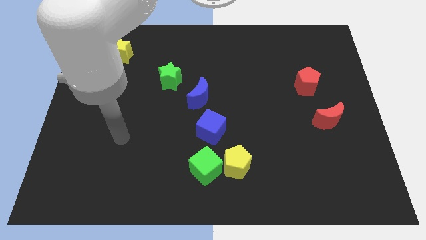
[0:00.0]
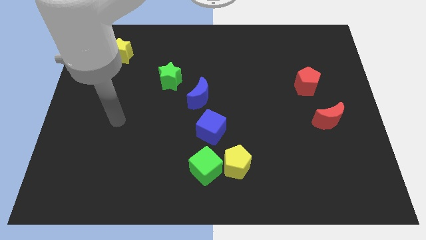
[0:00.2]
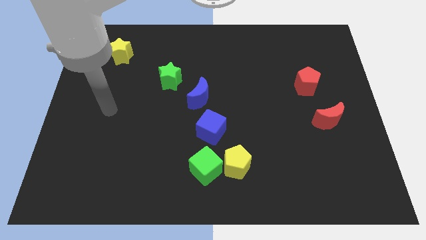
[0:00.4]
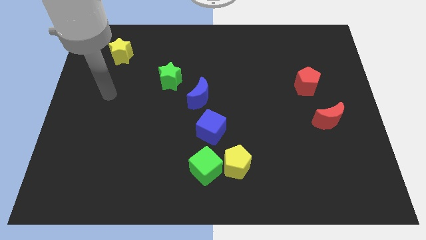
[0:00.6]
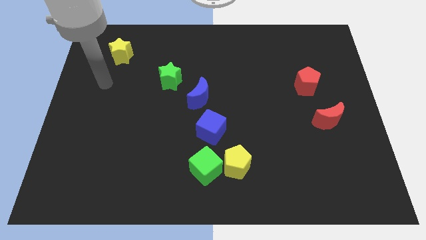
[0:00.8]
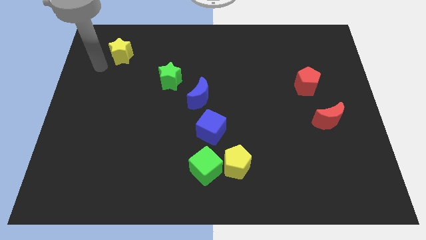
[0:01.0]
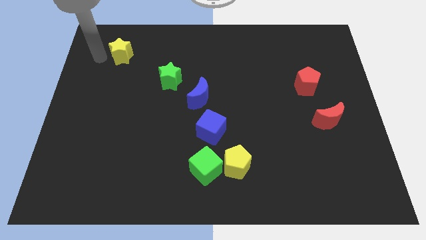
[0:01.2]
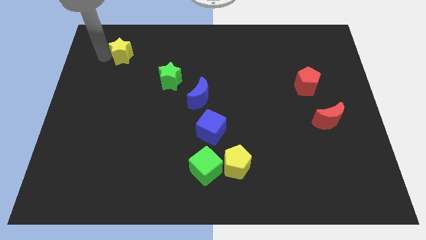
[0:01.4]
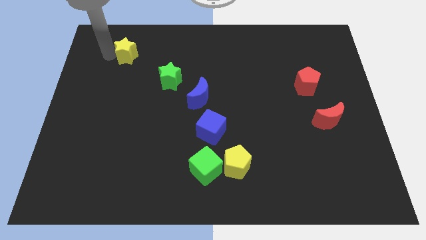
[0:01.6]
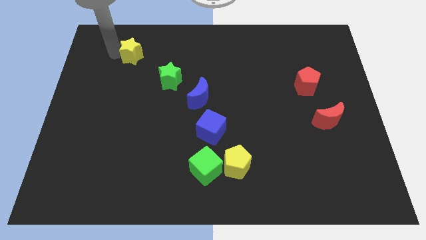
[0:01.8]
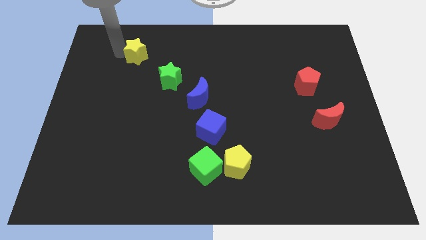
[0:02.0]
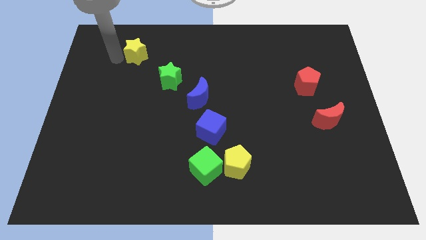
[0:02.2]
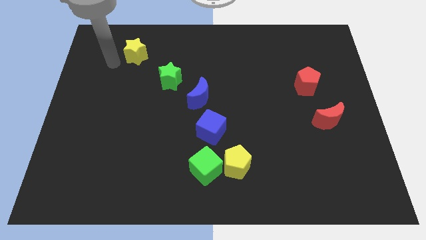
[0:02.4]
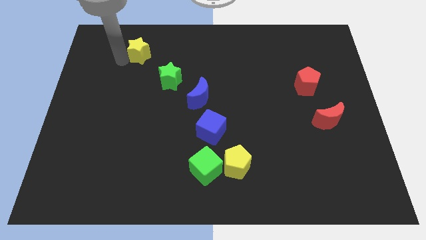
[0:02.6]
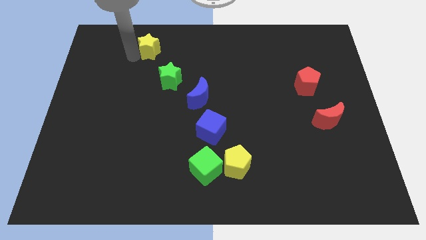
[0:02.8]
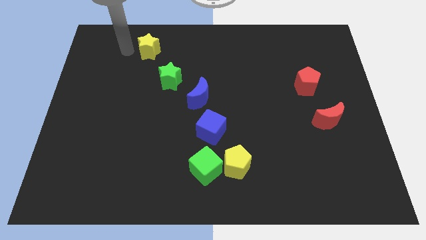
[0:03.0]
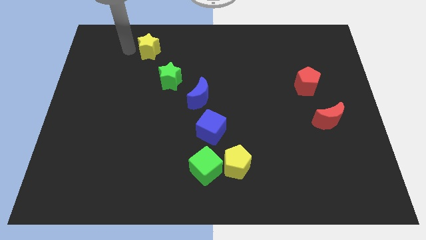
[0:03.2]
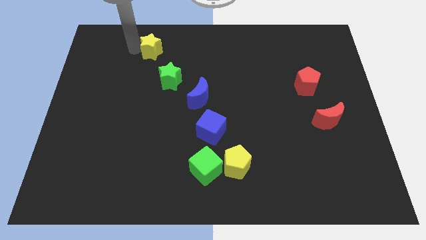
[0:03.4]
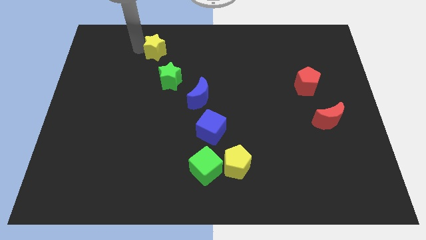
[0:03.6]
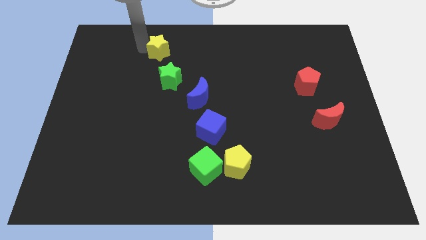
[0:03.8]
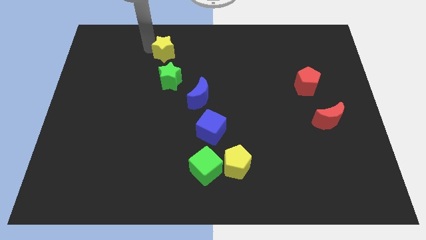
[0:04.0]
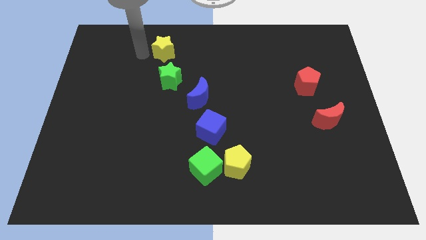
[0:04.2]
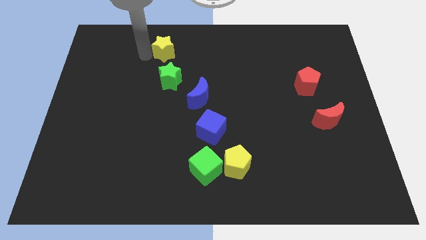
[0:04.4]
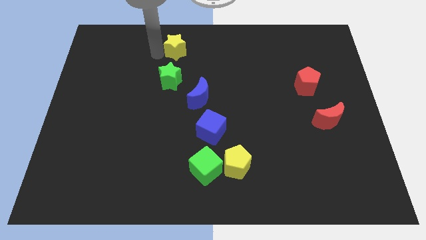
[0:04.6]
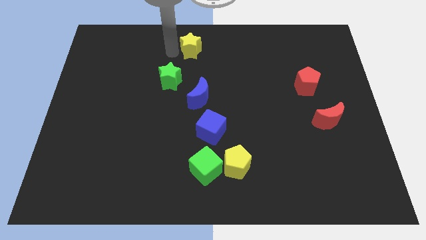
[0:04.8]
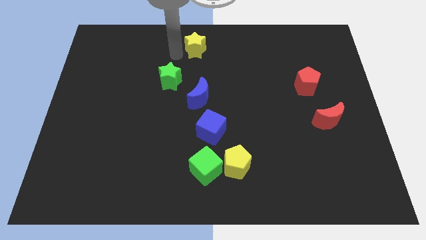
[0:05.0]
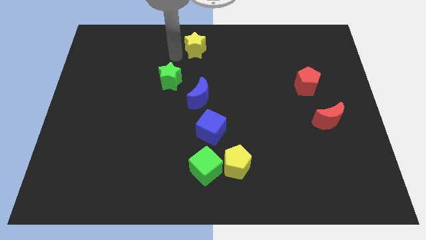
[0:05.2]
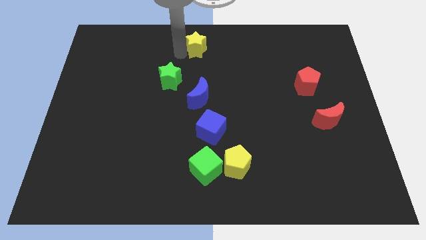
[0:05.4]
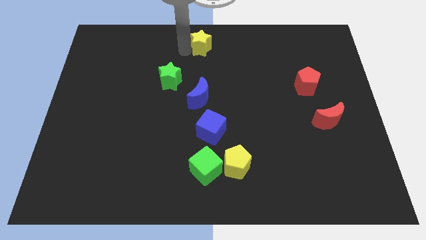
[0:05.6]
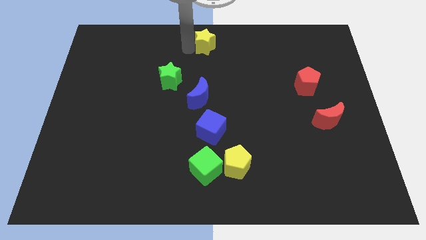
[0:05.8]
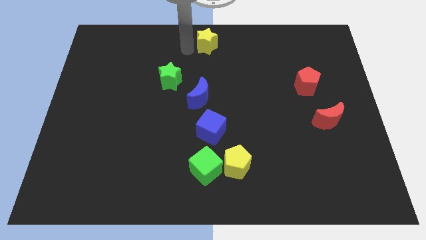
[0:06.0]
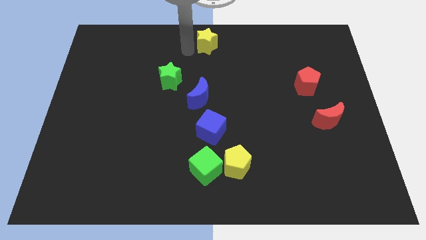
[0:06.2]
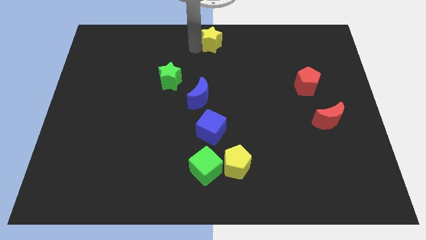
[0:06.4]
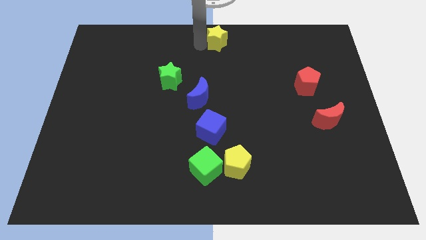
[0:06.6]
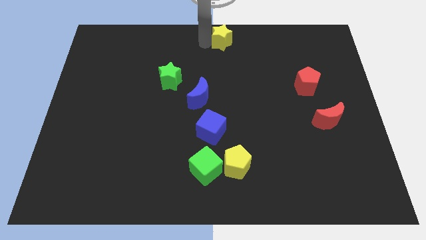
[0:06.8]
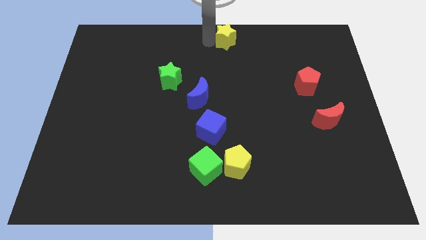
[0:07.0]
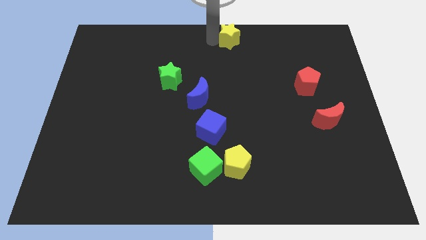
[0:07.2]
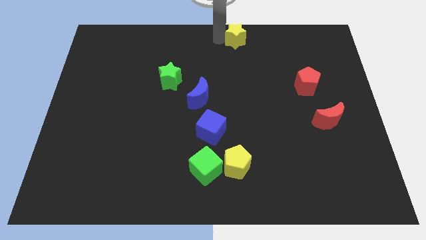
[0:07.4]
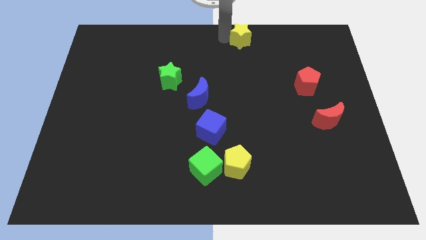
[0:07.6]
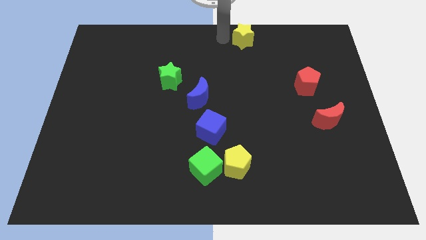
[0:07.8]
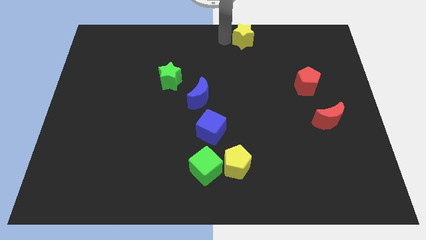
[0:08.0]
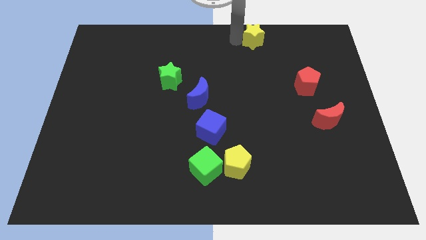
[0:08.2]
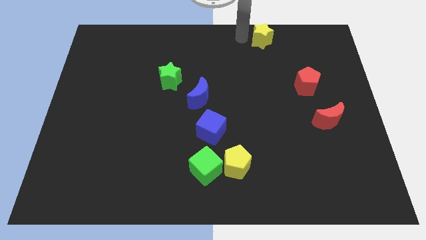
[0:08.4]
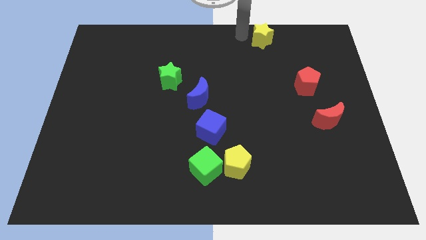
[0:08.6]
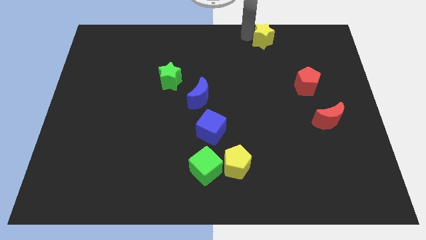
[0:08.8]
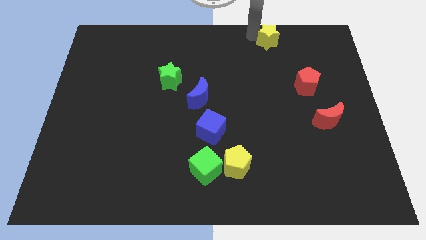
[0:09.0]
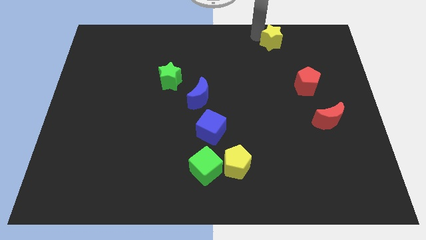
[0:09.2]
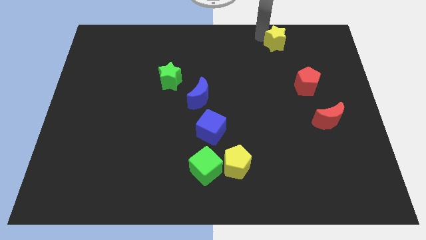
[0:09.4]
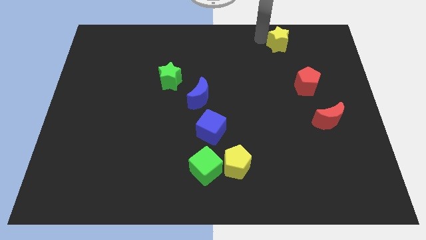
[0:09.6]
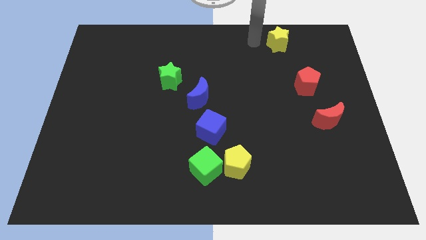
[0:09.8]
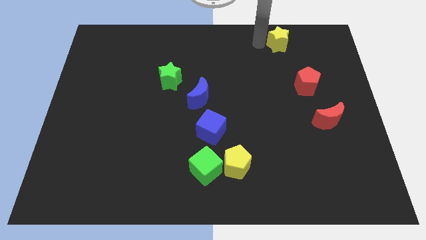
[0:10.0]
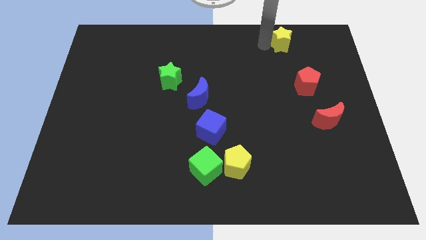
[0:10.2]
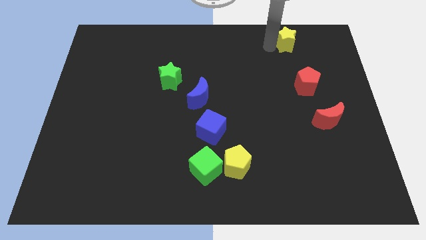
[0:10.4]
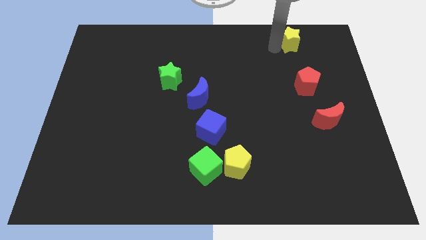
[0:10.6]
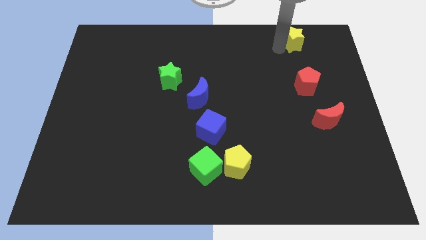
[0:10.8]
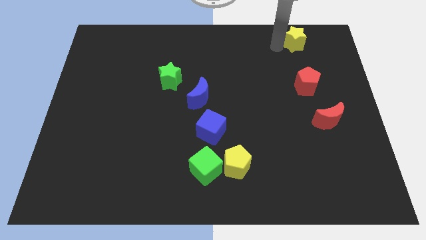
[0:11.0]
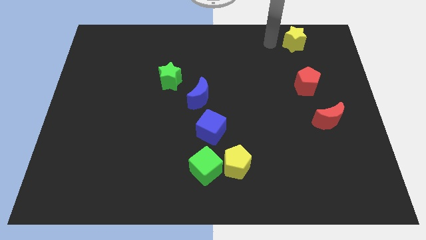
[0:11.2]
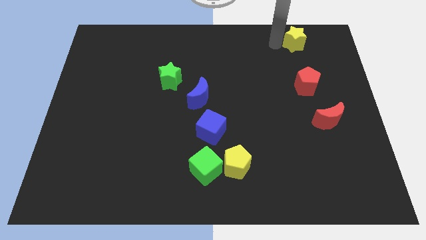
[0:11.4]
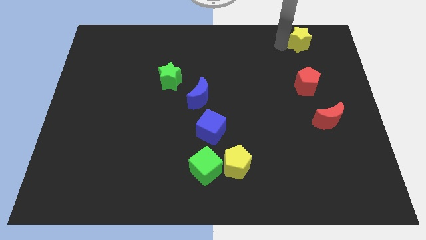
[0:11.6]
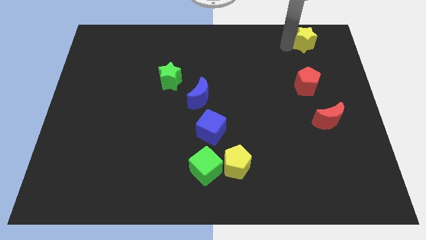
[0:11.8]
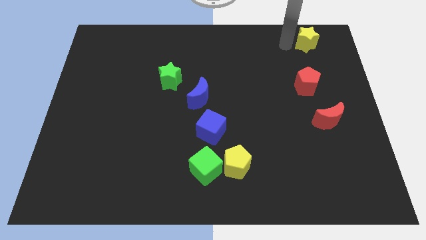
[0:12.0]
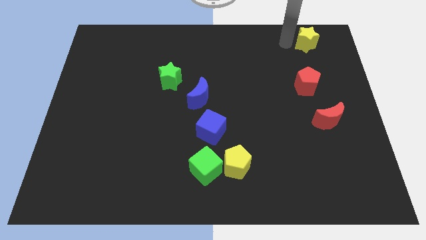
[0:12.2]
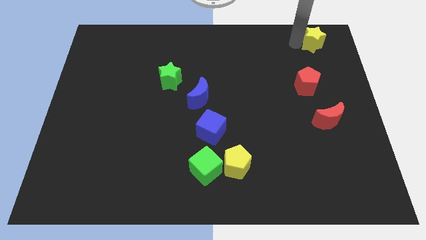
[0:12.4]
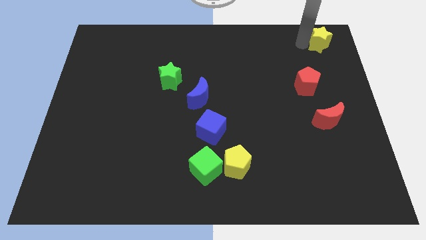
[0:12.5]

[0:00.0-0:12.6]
put the yellow star to the top right corner
